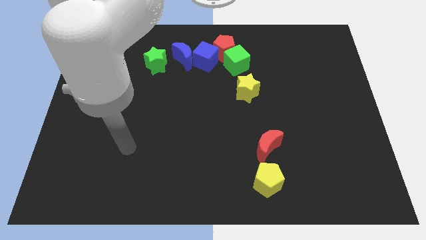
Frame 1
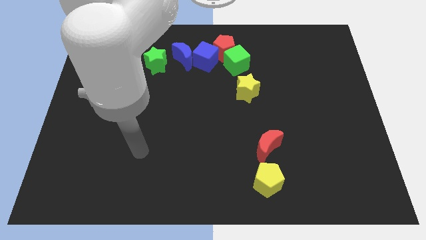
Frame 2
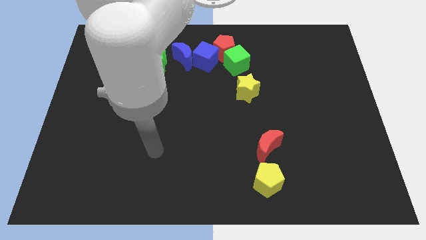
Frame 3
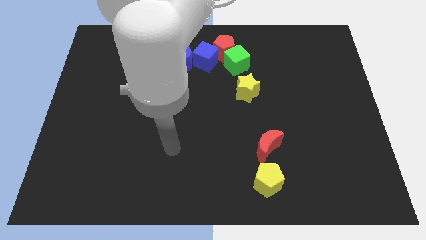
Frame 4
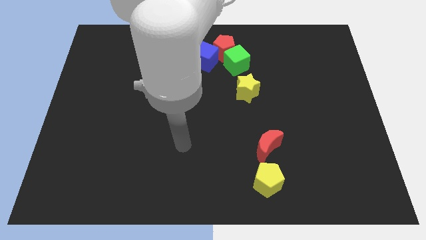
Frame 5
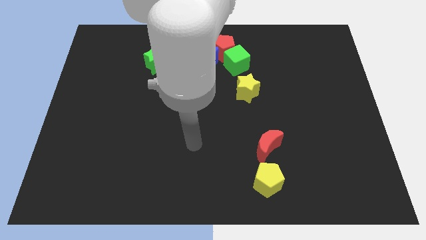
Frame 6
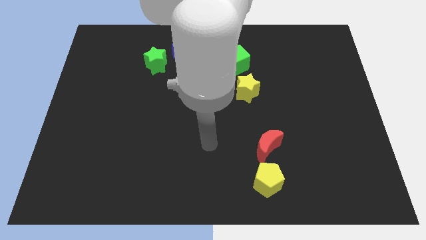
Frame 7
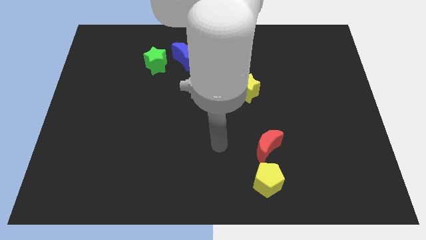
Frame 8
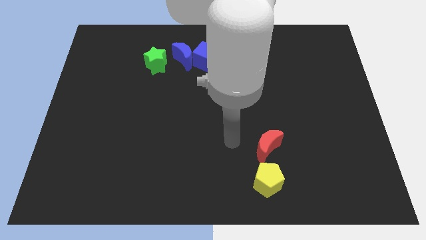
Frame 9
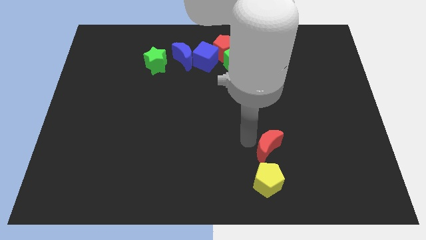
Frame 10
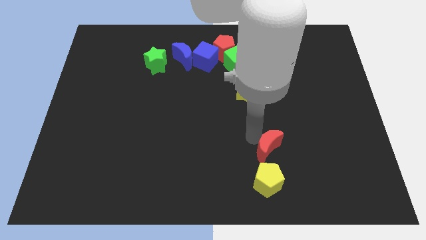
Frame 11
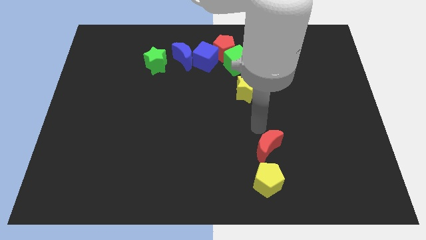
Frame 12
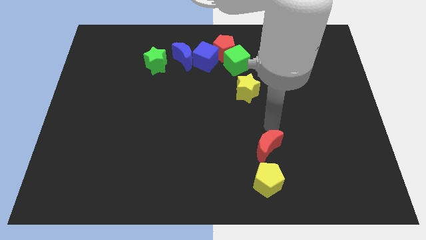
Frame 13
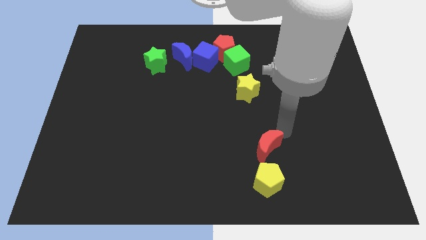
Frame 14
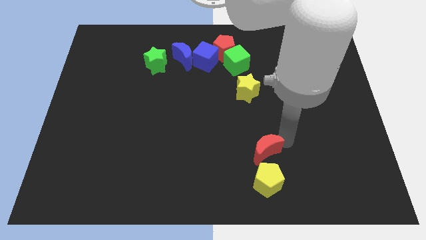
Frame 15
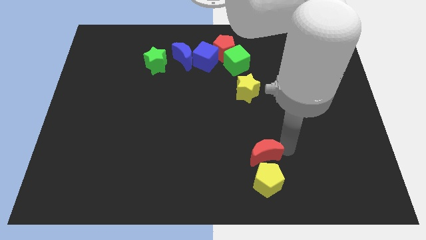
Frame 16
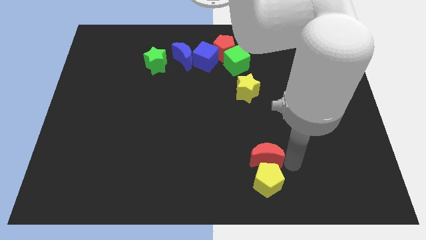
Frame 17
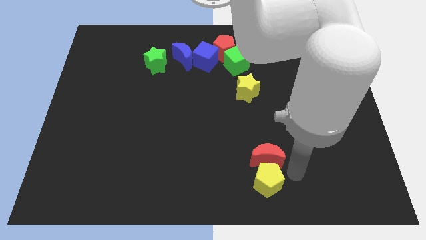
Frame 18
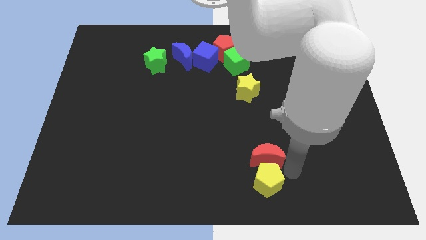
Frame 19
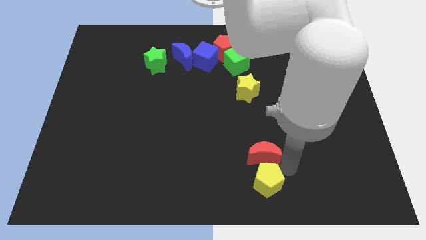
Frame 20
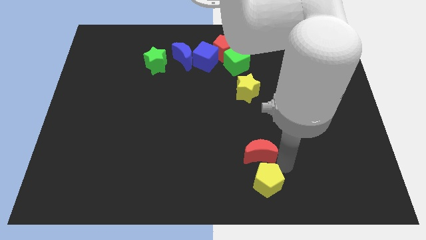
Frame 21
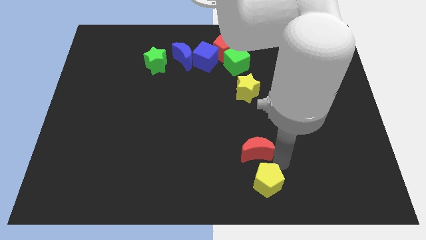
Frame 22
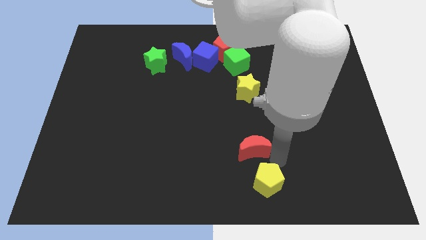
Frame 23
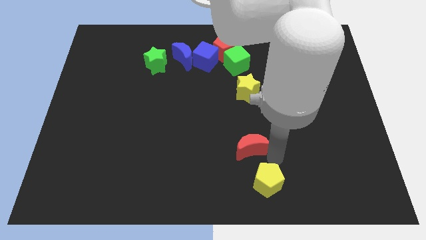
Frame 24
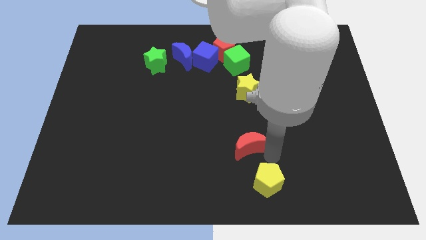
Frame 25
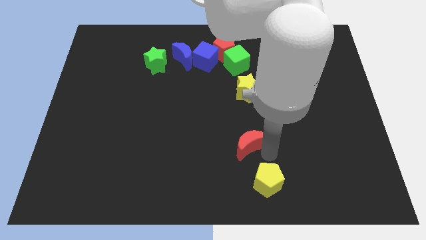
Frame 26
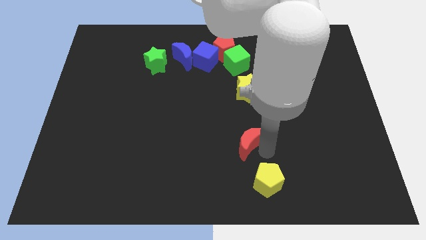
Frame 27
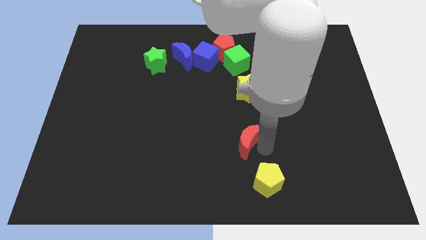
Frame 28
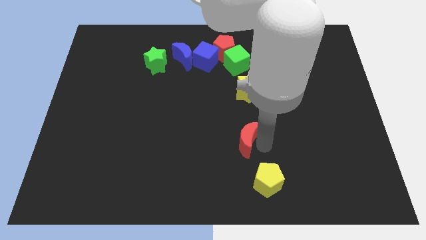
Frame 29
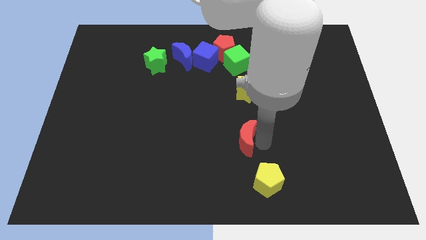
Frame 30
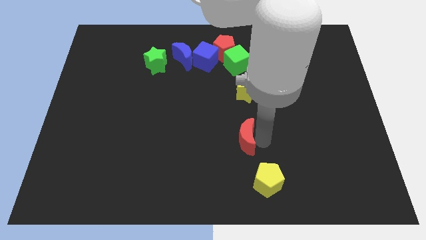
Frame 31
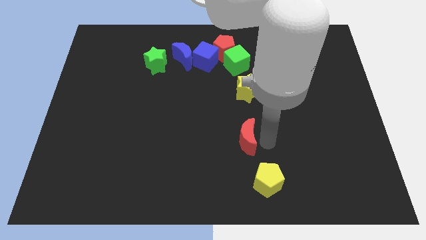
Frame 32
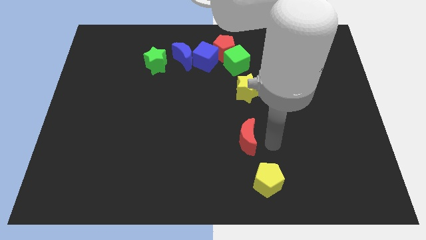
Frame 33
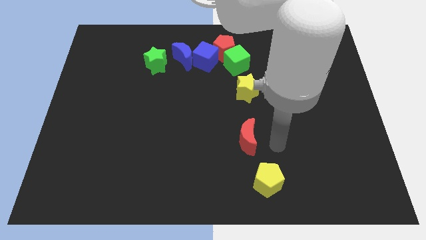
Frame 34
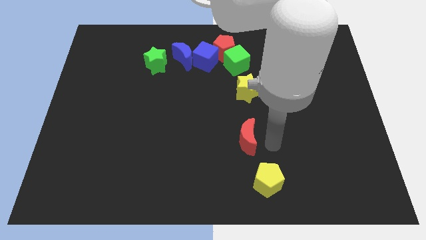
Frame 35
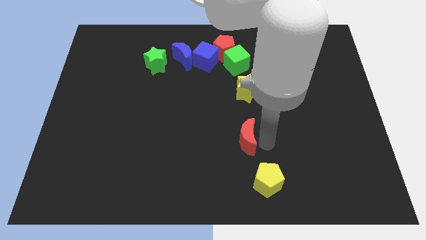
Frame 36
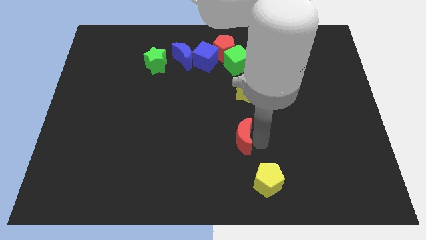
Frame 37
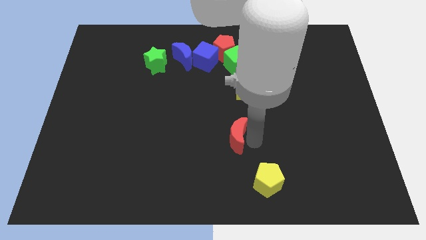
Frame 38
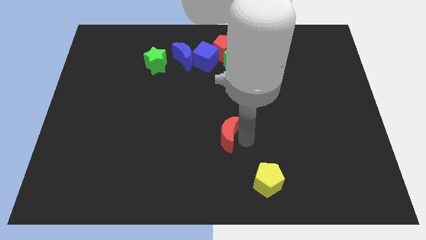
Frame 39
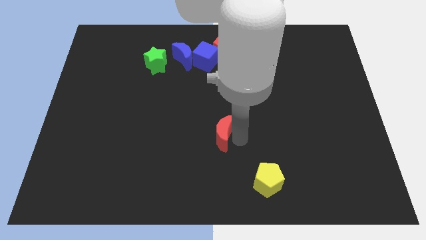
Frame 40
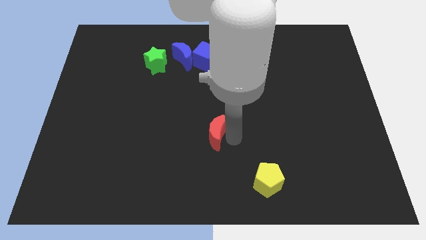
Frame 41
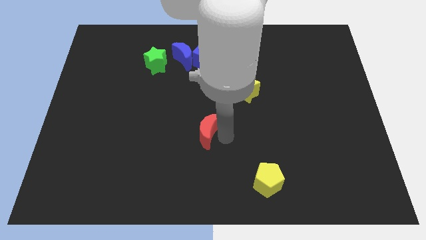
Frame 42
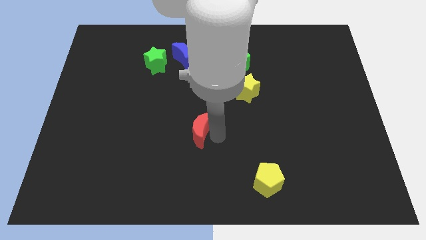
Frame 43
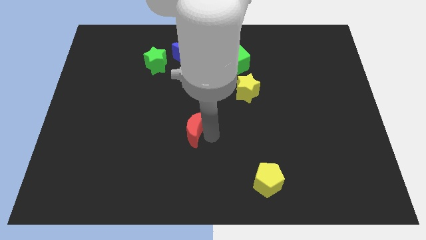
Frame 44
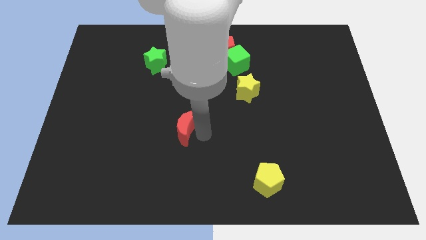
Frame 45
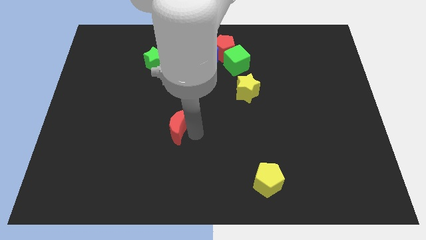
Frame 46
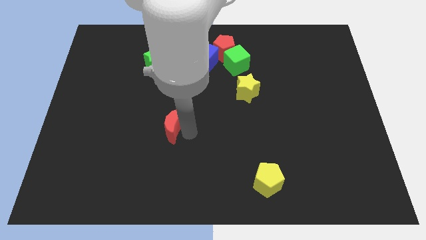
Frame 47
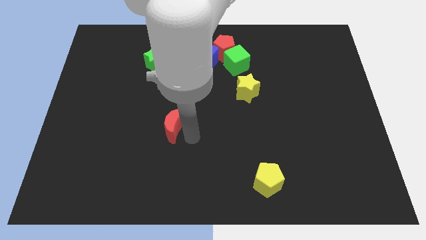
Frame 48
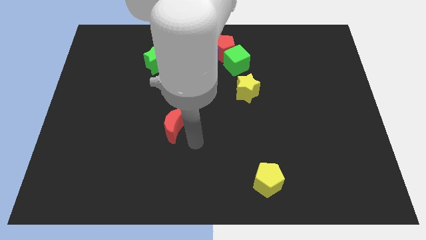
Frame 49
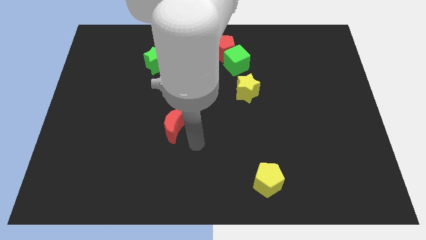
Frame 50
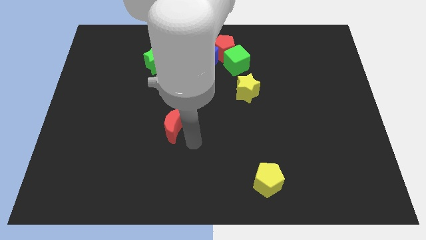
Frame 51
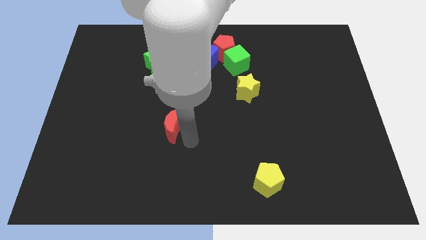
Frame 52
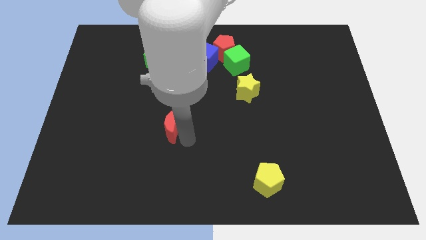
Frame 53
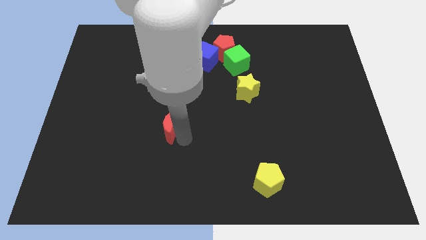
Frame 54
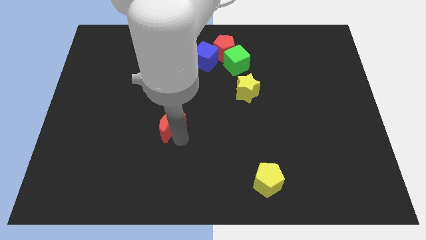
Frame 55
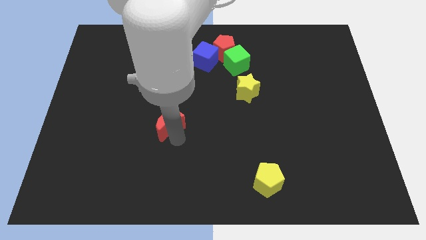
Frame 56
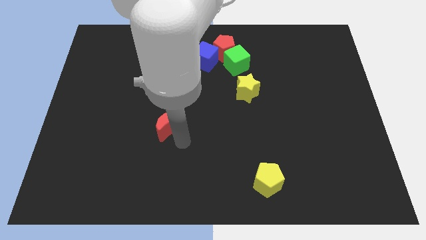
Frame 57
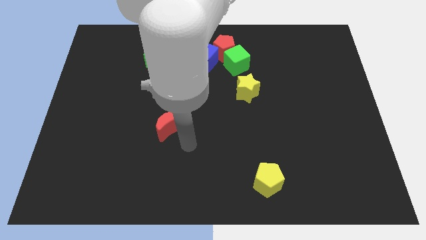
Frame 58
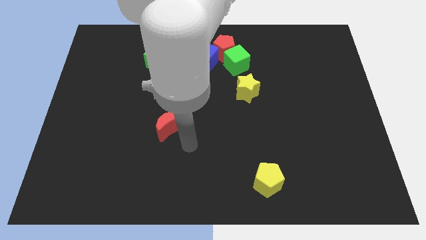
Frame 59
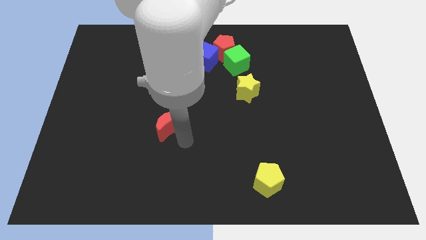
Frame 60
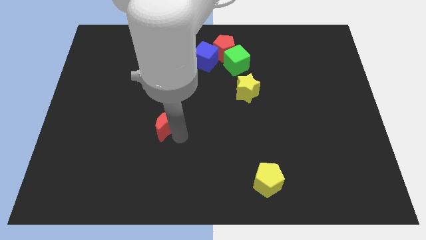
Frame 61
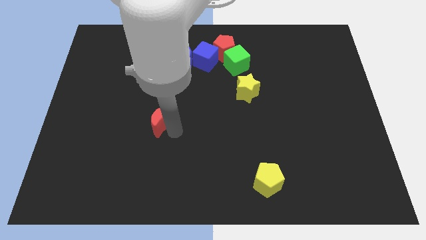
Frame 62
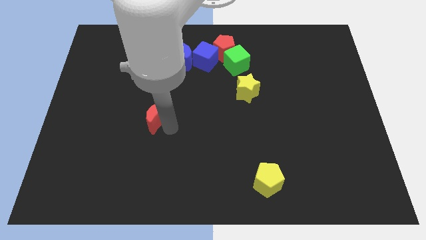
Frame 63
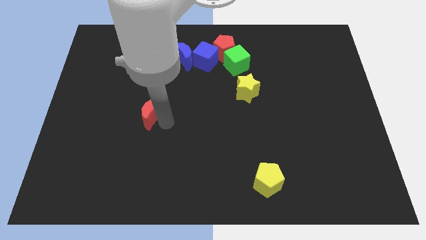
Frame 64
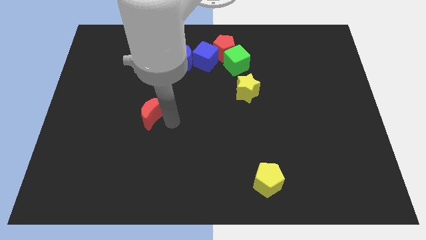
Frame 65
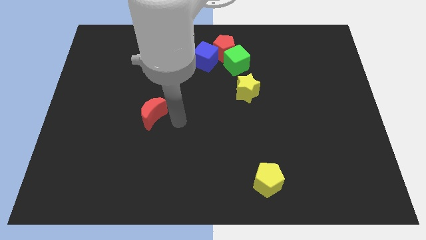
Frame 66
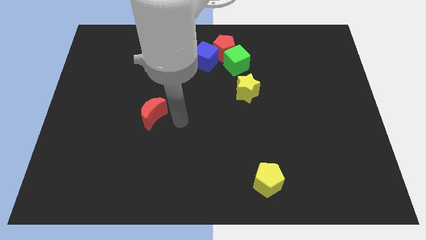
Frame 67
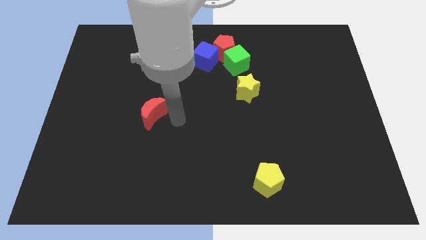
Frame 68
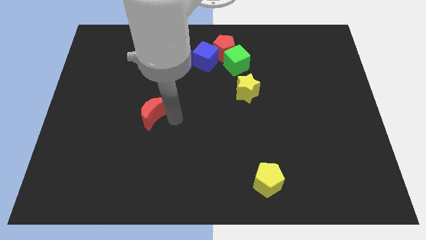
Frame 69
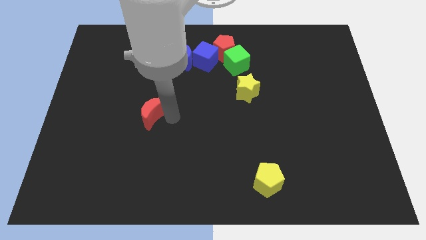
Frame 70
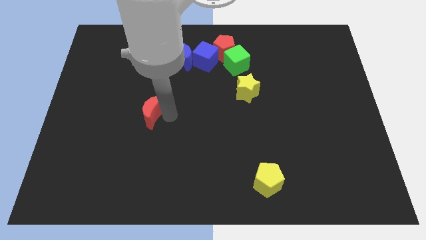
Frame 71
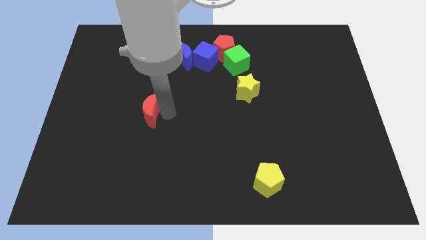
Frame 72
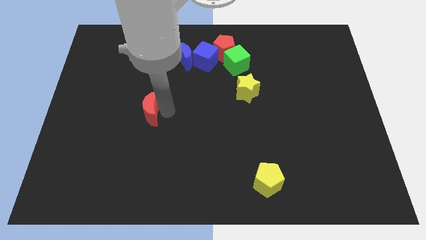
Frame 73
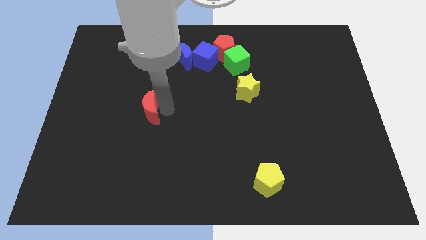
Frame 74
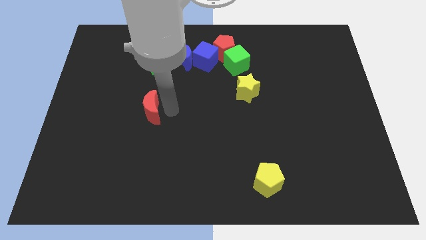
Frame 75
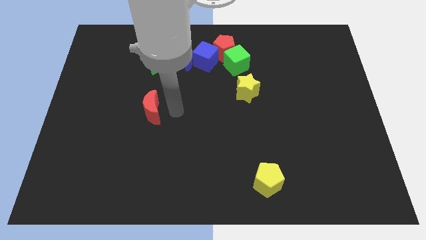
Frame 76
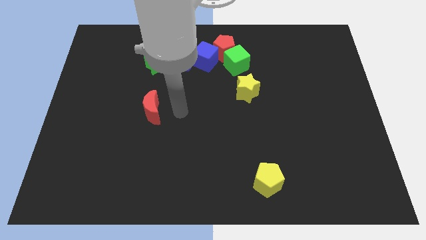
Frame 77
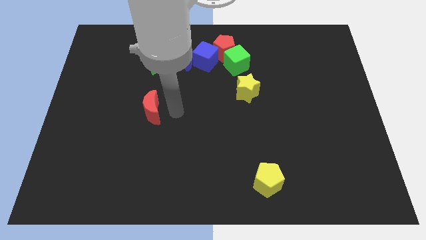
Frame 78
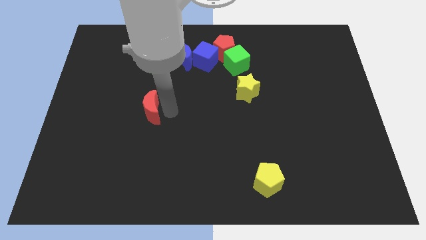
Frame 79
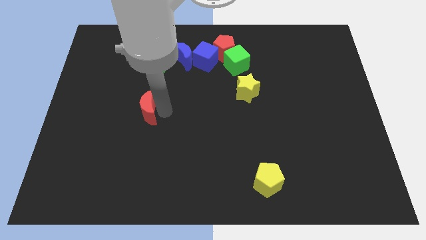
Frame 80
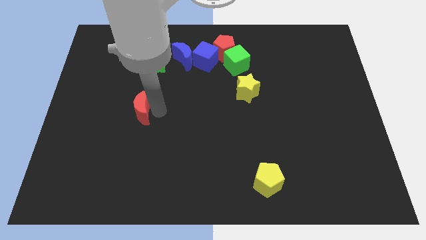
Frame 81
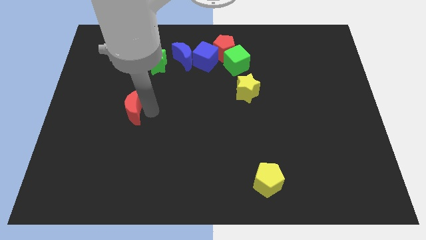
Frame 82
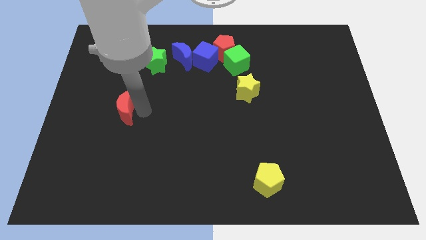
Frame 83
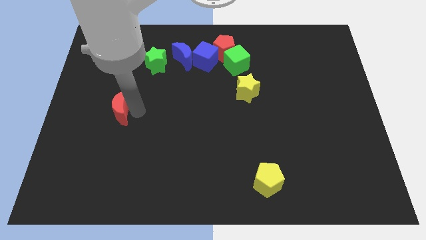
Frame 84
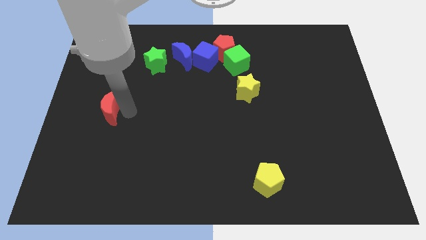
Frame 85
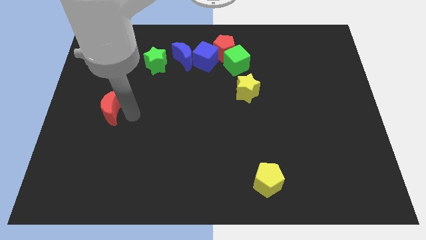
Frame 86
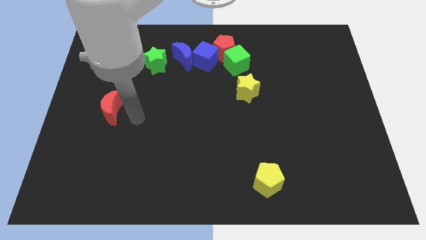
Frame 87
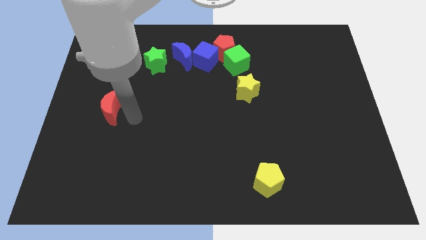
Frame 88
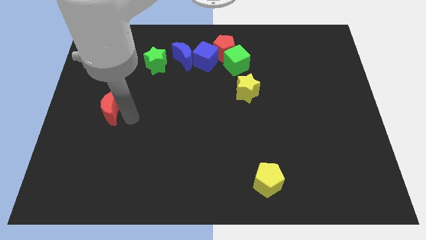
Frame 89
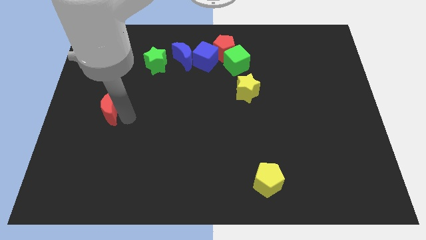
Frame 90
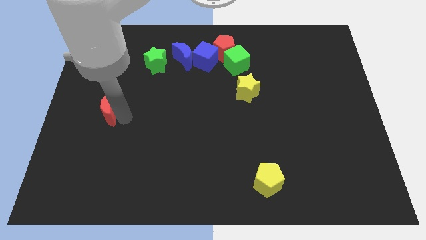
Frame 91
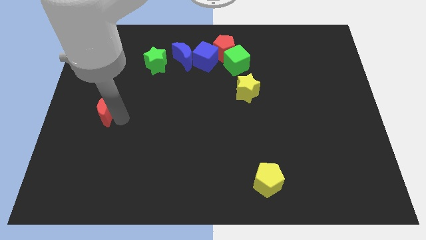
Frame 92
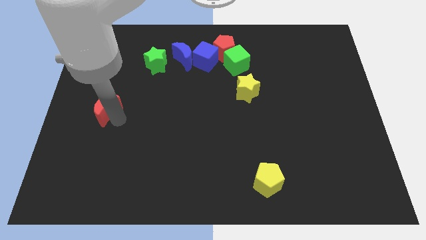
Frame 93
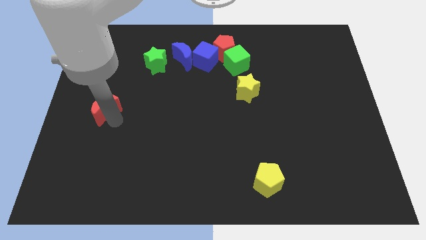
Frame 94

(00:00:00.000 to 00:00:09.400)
push the red moon to the center left
